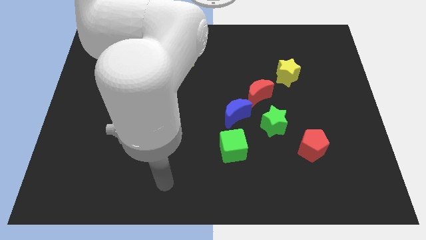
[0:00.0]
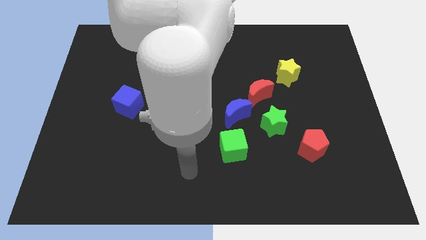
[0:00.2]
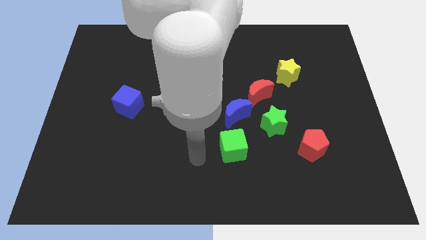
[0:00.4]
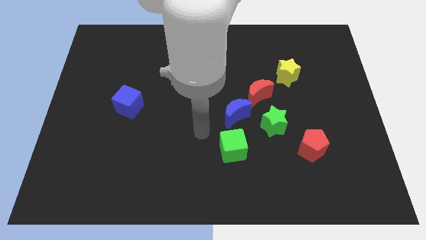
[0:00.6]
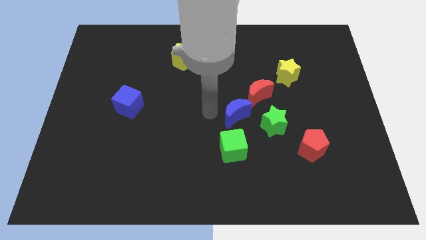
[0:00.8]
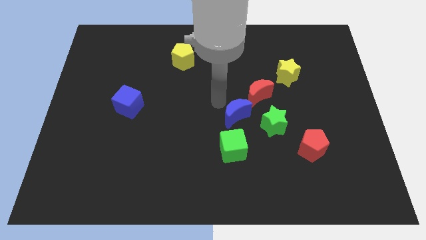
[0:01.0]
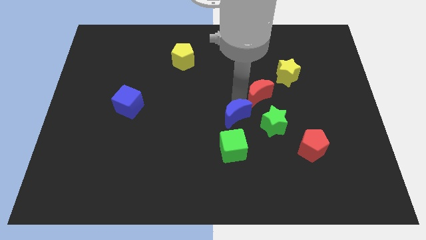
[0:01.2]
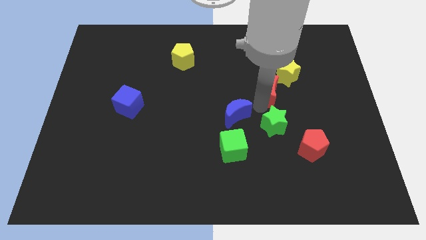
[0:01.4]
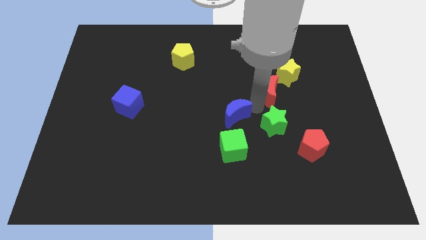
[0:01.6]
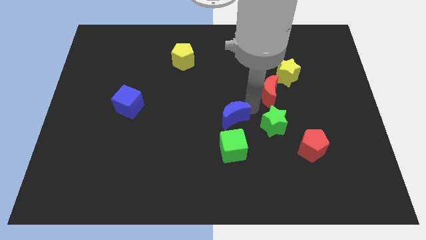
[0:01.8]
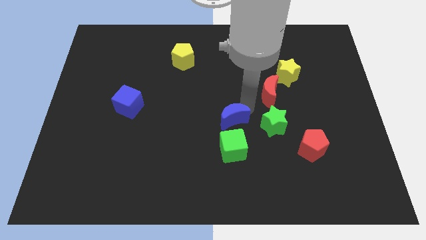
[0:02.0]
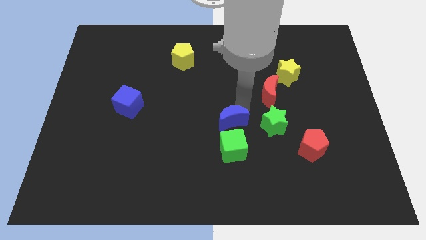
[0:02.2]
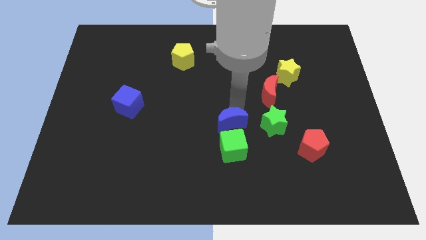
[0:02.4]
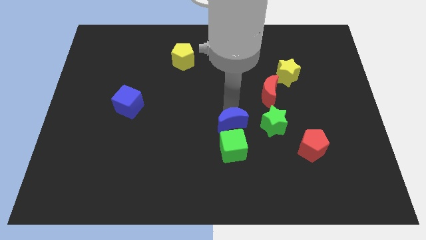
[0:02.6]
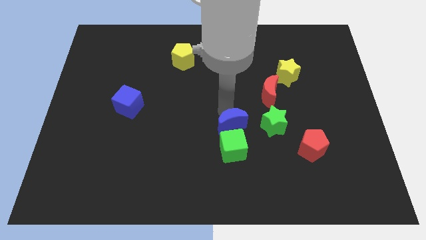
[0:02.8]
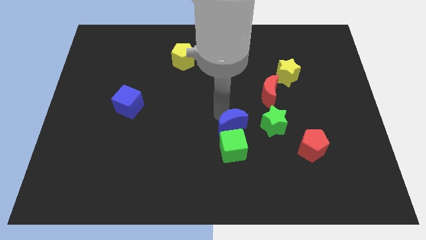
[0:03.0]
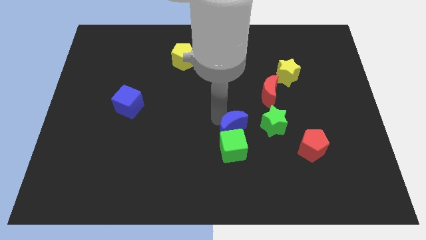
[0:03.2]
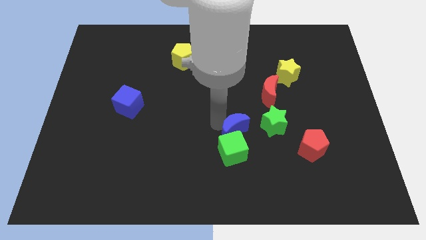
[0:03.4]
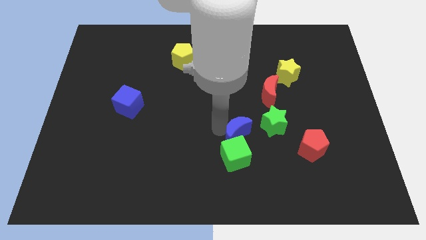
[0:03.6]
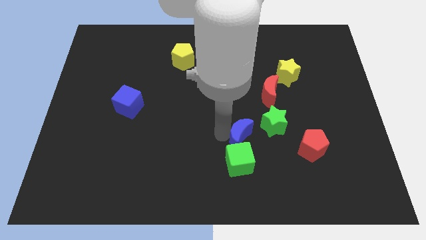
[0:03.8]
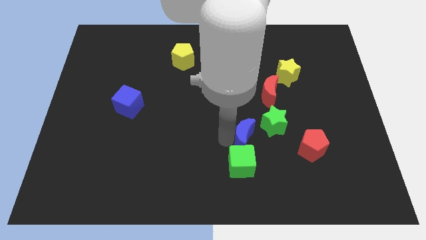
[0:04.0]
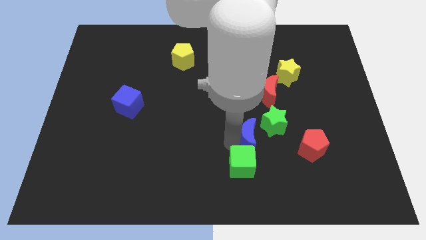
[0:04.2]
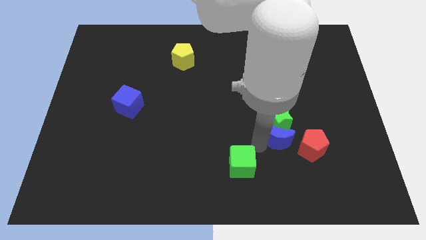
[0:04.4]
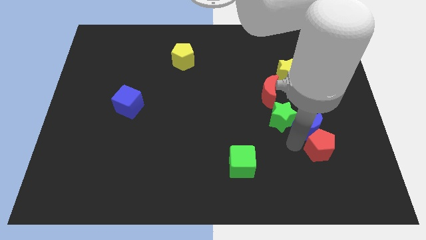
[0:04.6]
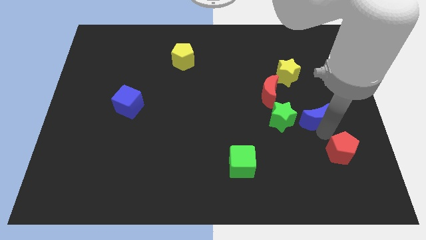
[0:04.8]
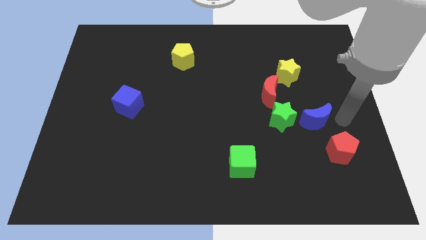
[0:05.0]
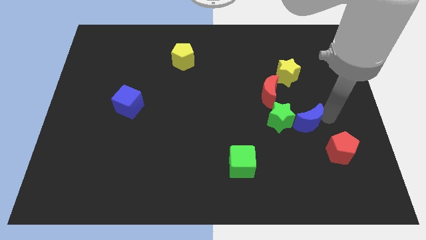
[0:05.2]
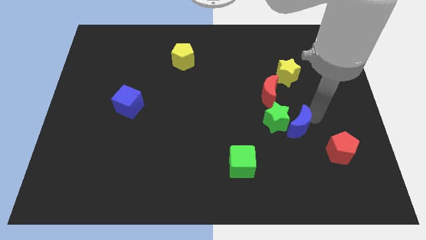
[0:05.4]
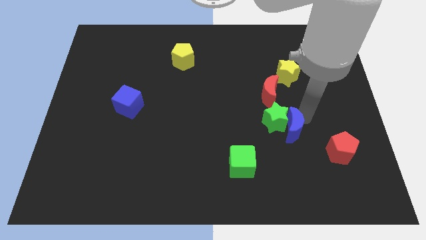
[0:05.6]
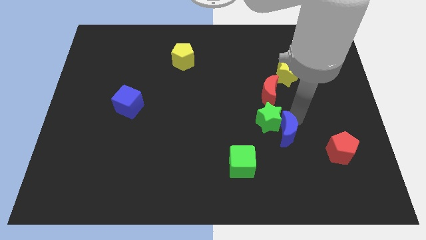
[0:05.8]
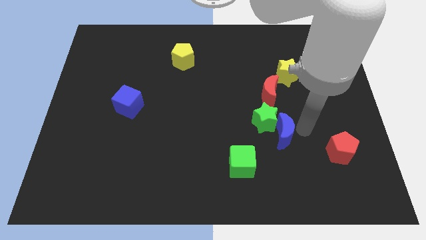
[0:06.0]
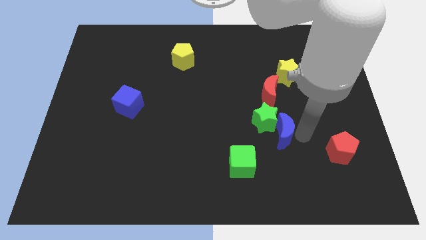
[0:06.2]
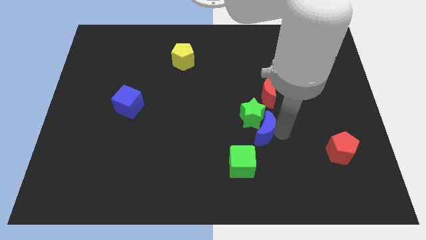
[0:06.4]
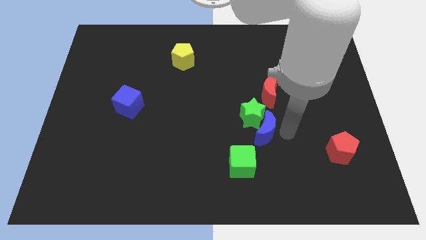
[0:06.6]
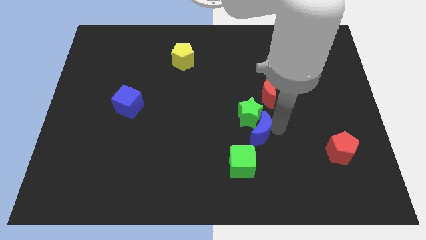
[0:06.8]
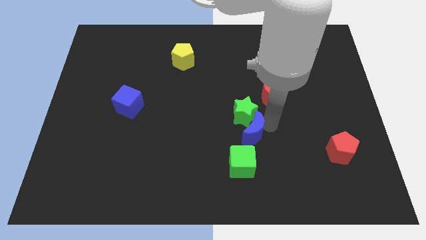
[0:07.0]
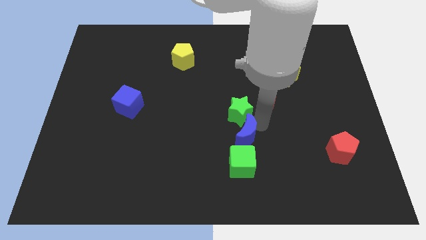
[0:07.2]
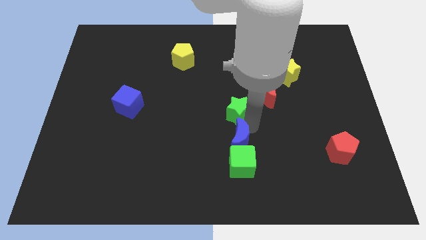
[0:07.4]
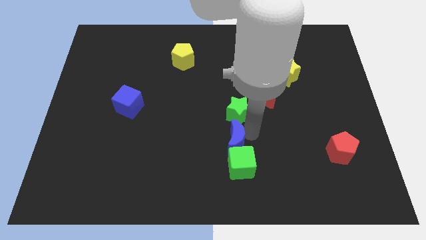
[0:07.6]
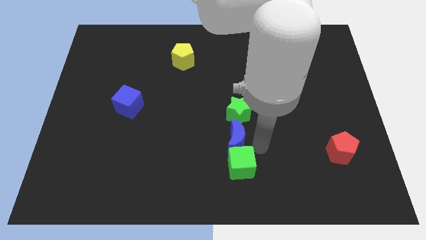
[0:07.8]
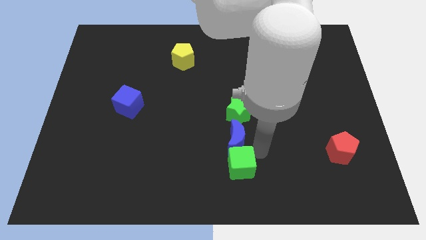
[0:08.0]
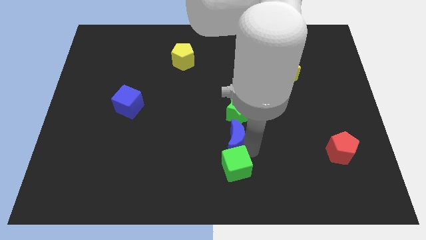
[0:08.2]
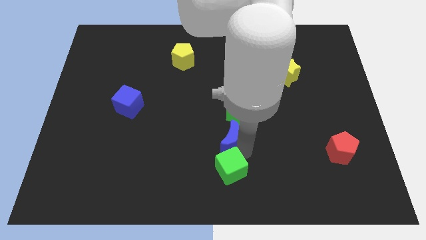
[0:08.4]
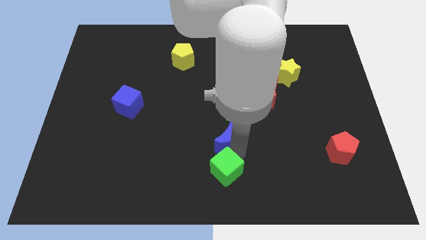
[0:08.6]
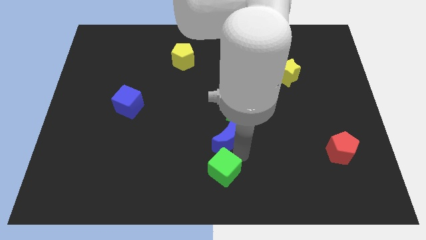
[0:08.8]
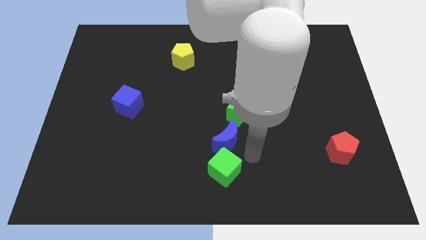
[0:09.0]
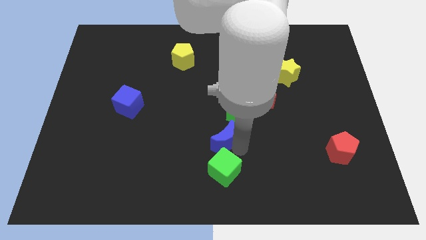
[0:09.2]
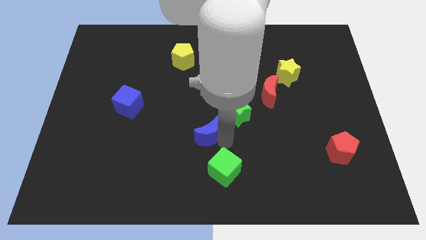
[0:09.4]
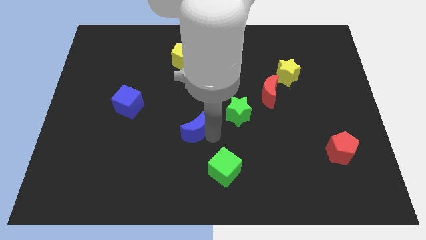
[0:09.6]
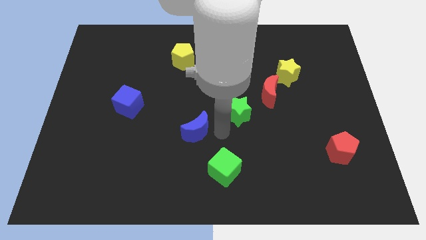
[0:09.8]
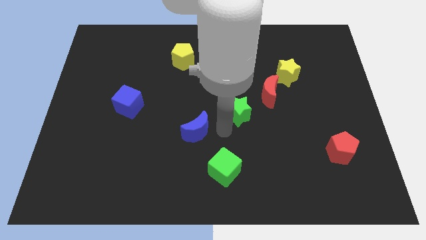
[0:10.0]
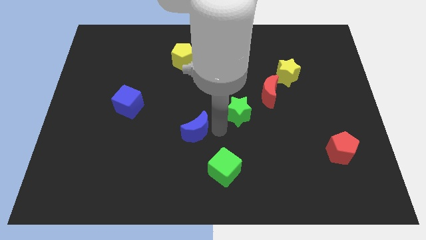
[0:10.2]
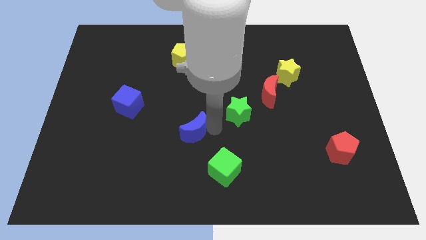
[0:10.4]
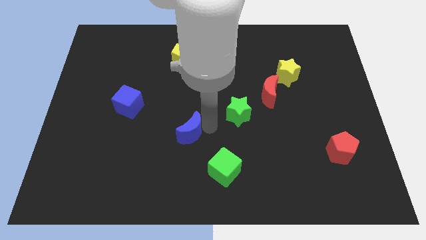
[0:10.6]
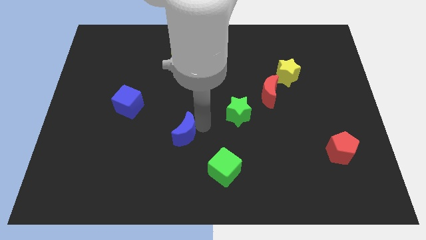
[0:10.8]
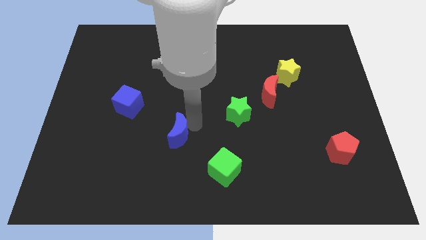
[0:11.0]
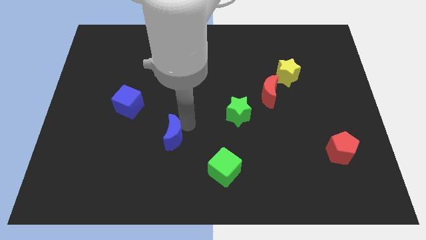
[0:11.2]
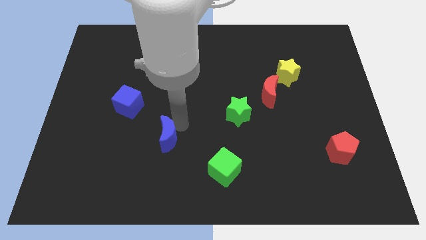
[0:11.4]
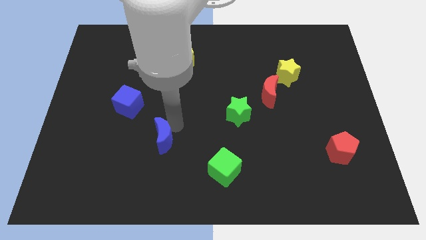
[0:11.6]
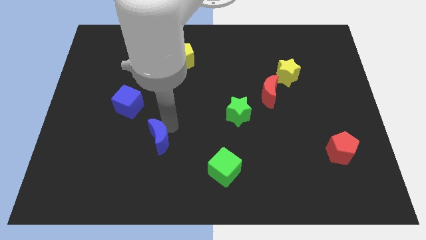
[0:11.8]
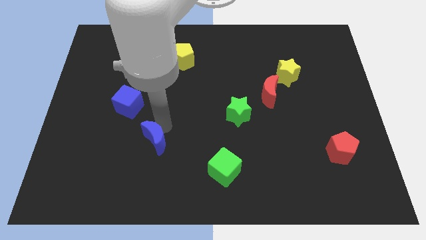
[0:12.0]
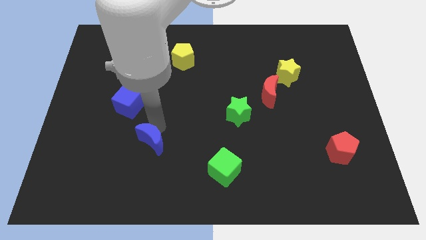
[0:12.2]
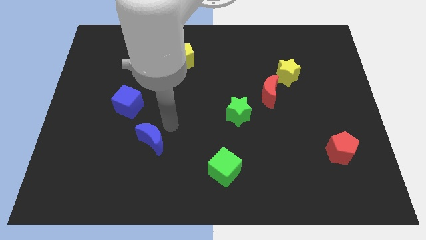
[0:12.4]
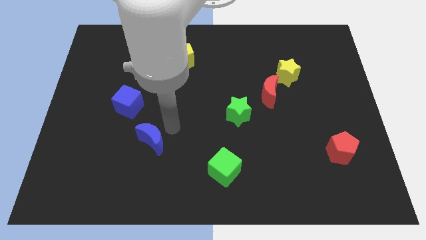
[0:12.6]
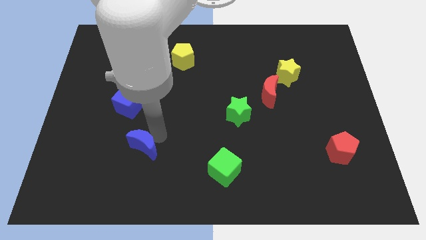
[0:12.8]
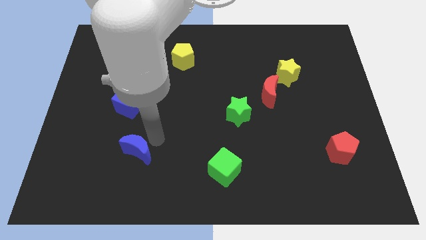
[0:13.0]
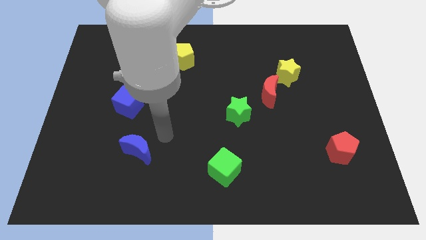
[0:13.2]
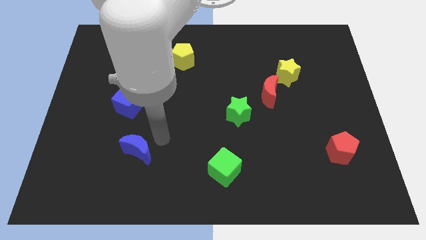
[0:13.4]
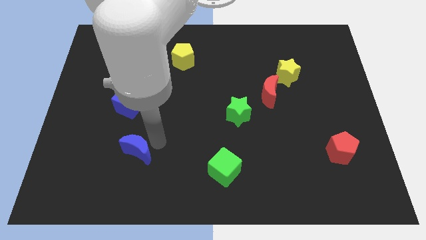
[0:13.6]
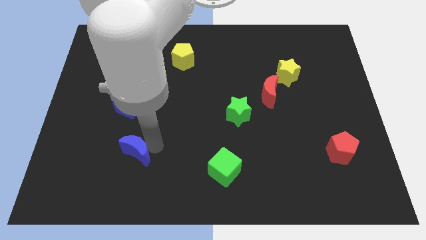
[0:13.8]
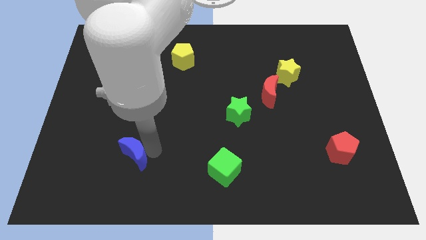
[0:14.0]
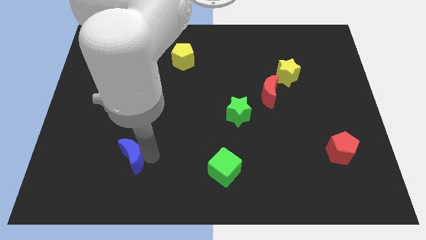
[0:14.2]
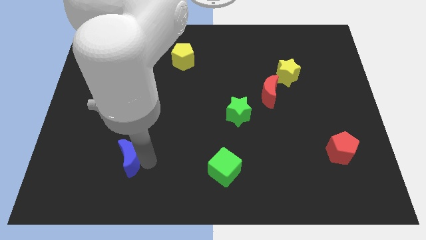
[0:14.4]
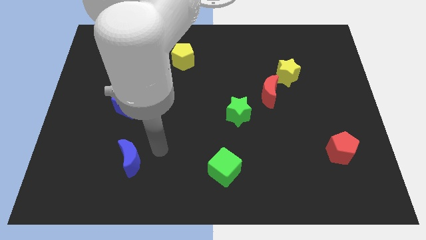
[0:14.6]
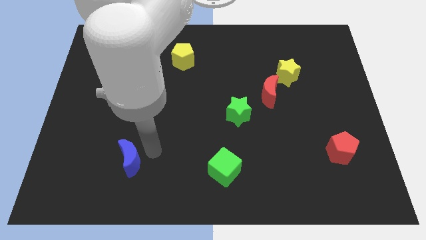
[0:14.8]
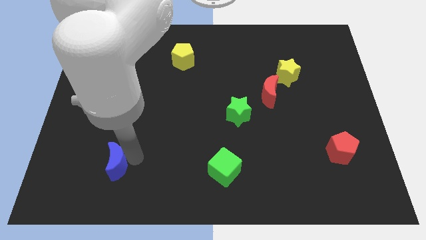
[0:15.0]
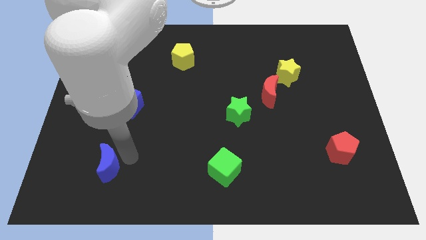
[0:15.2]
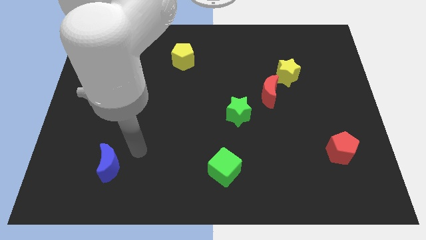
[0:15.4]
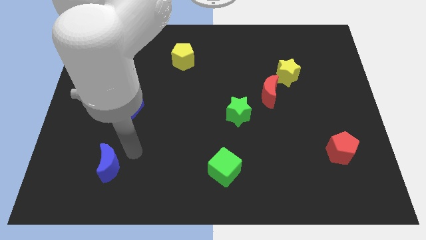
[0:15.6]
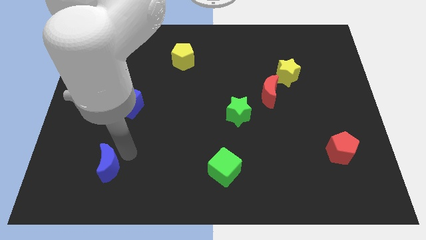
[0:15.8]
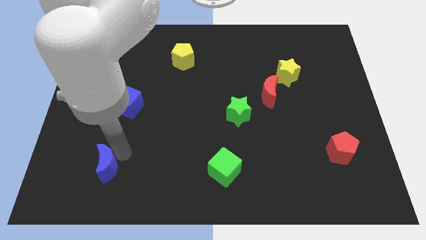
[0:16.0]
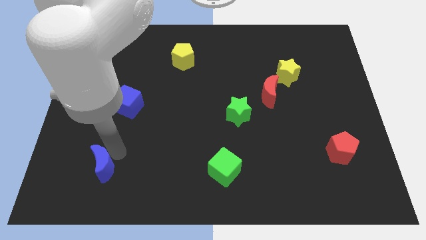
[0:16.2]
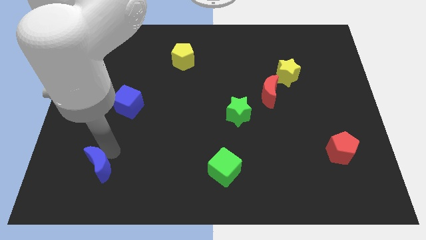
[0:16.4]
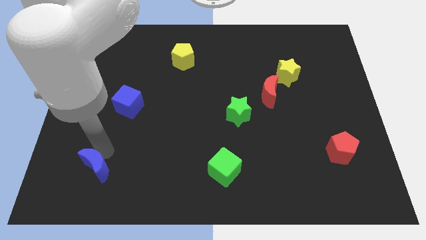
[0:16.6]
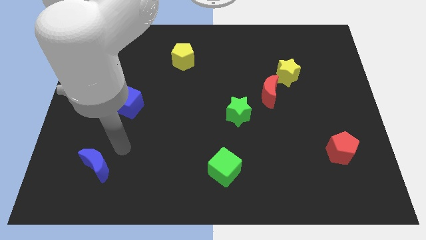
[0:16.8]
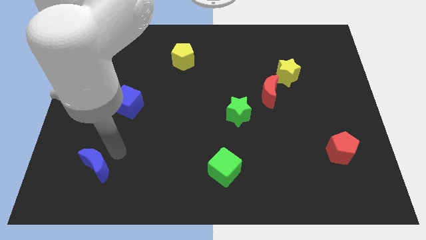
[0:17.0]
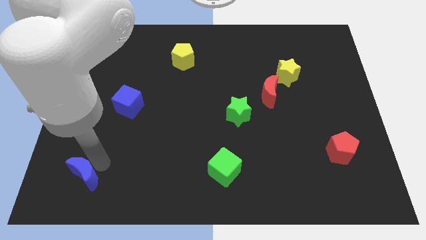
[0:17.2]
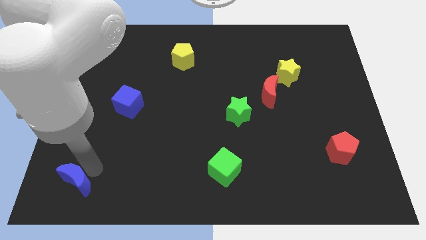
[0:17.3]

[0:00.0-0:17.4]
push the blue moon to the lower left corner
